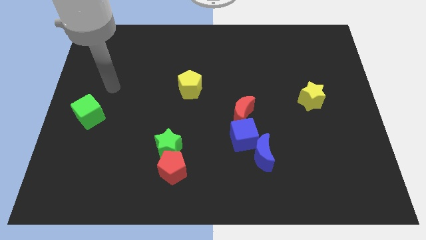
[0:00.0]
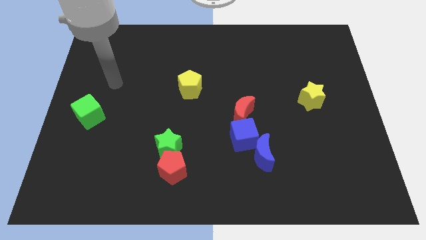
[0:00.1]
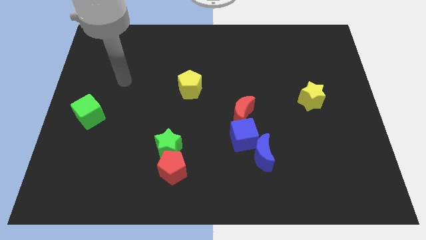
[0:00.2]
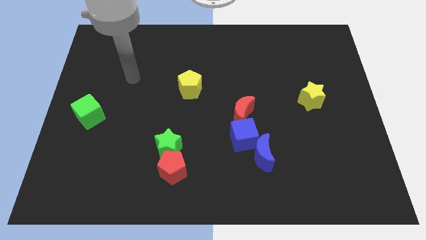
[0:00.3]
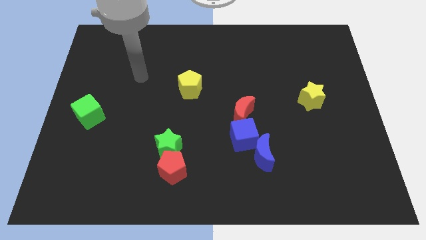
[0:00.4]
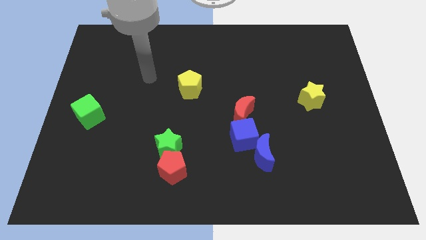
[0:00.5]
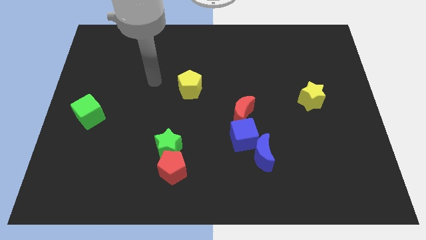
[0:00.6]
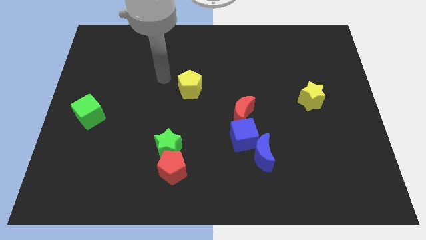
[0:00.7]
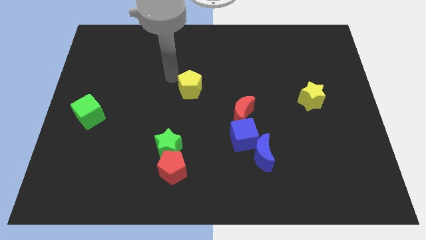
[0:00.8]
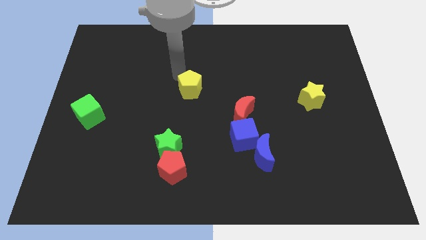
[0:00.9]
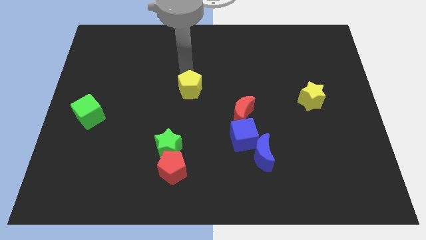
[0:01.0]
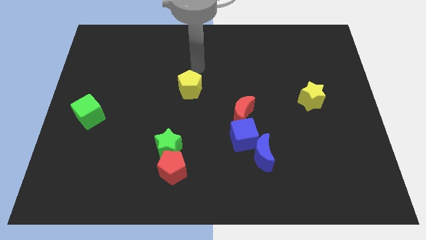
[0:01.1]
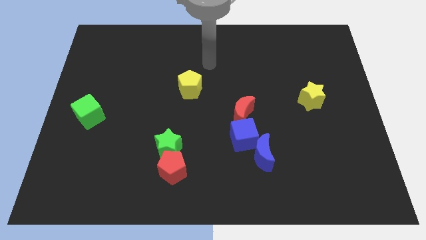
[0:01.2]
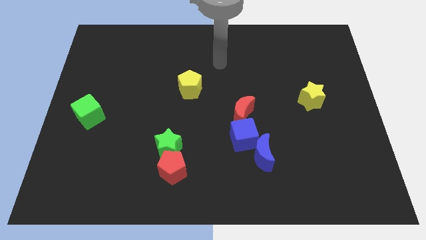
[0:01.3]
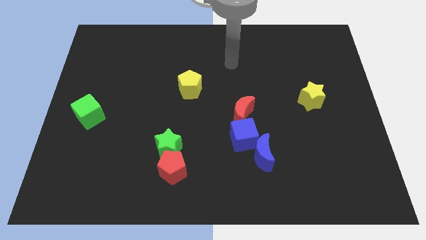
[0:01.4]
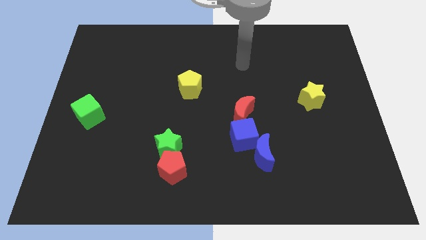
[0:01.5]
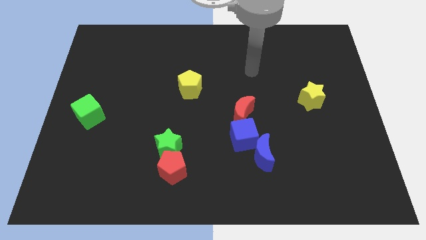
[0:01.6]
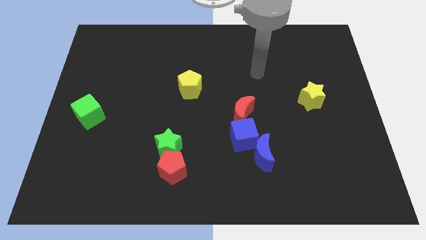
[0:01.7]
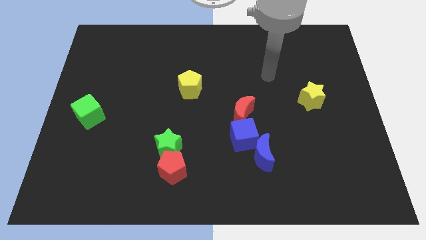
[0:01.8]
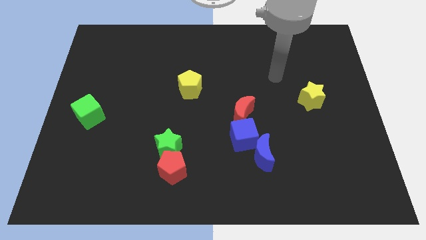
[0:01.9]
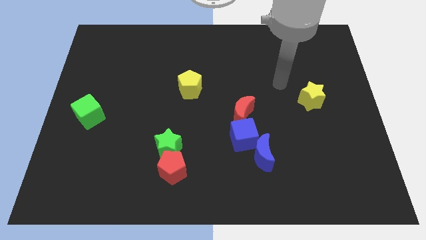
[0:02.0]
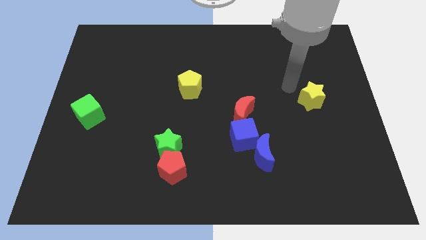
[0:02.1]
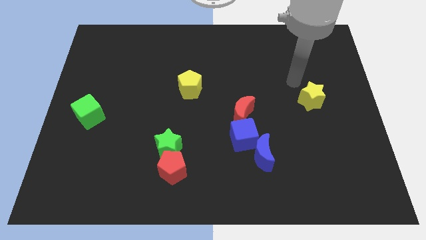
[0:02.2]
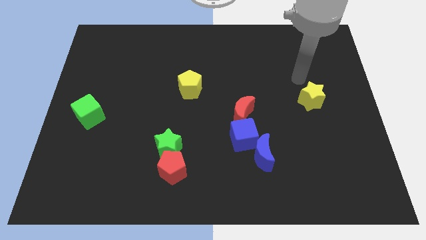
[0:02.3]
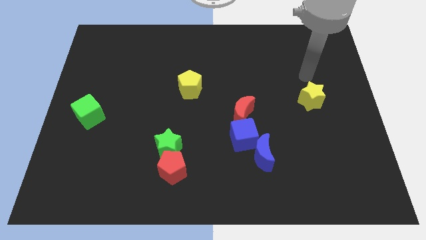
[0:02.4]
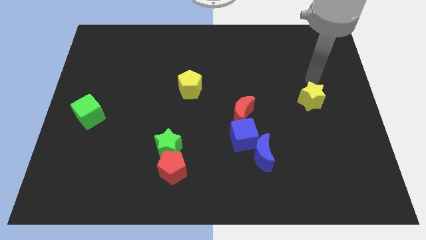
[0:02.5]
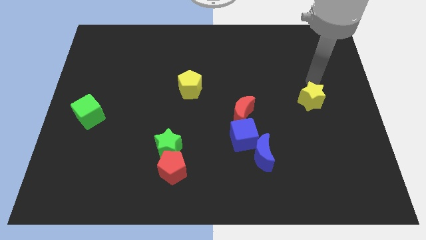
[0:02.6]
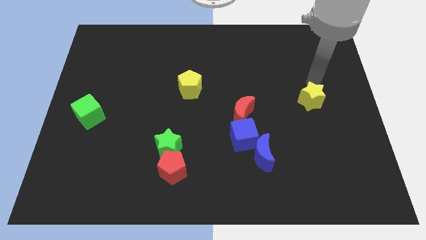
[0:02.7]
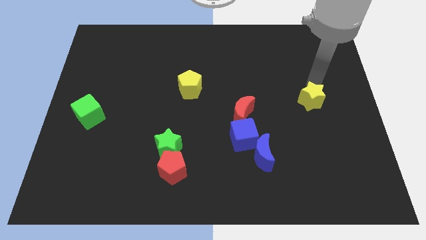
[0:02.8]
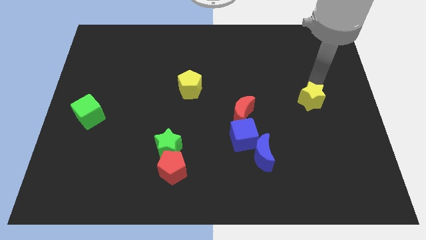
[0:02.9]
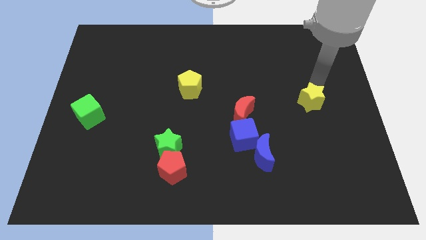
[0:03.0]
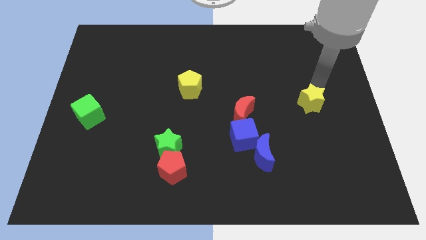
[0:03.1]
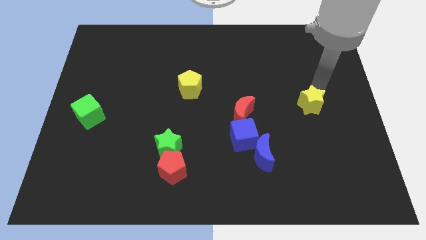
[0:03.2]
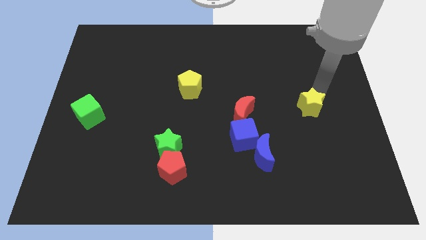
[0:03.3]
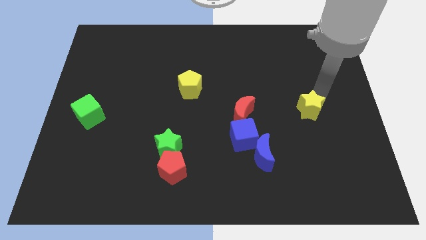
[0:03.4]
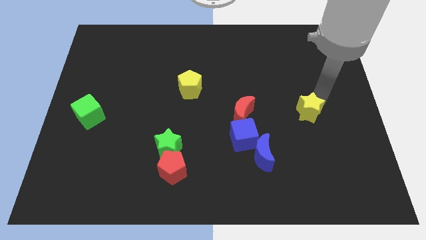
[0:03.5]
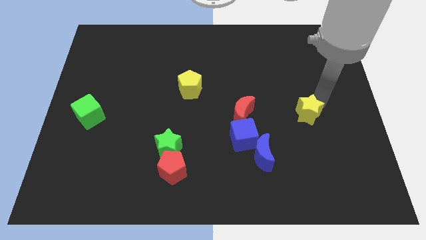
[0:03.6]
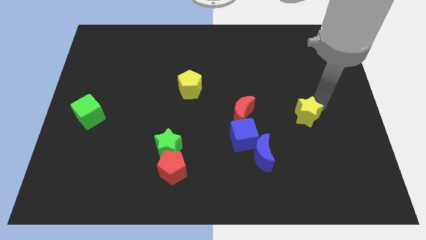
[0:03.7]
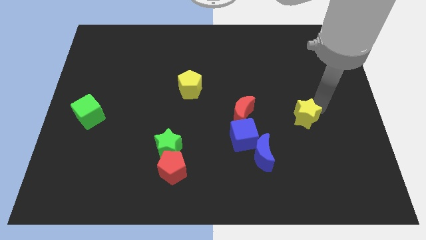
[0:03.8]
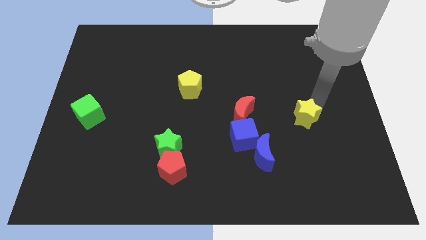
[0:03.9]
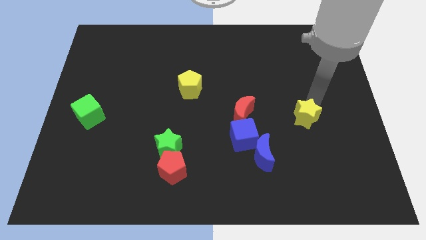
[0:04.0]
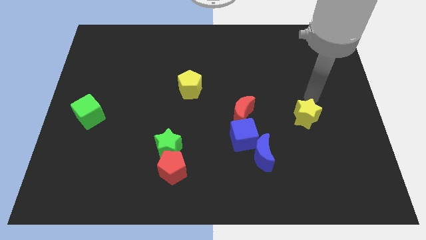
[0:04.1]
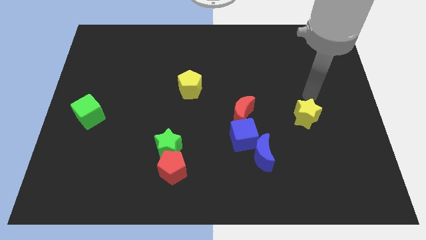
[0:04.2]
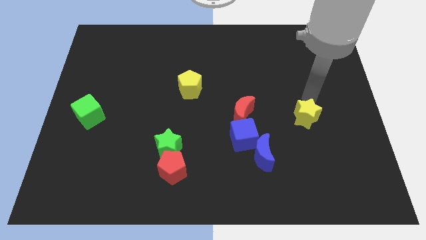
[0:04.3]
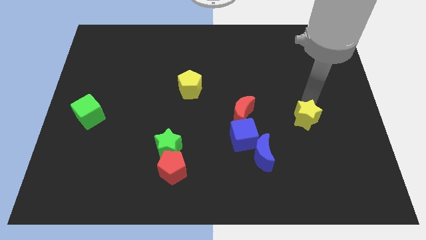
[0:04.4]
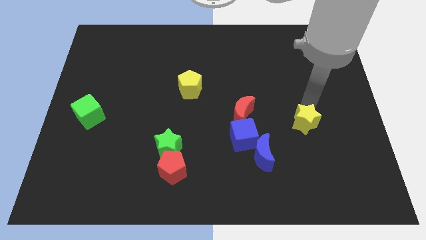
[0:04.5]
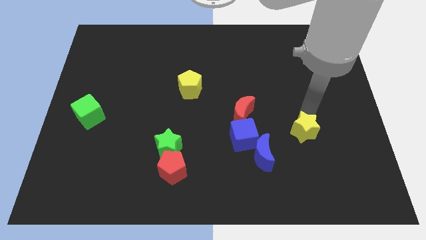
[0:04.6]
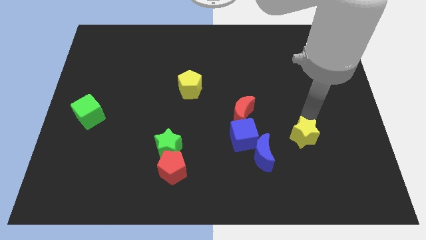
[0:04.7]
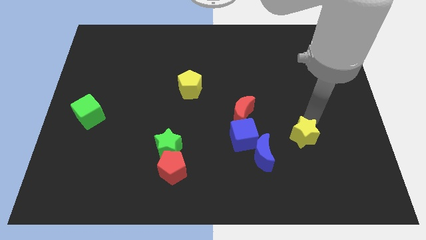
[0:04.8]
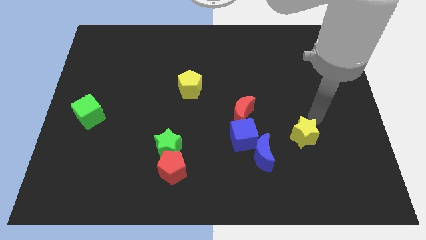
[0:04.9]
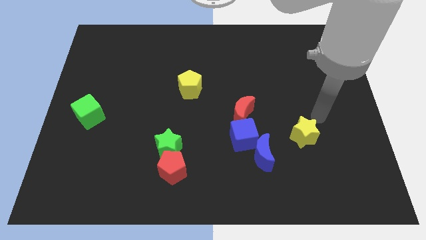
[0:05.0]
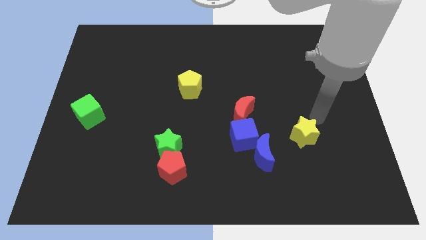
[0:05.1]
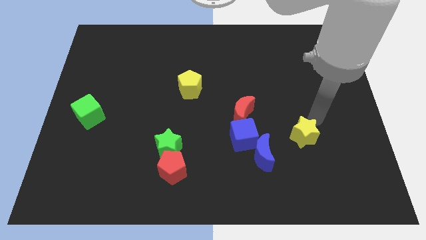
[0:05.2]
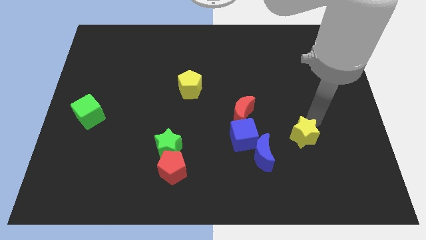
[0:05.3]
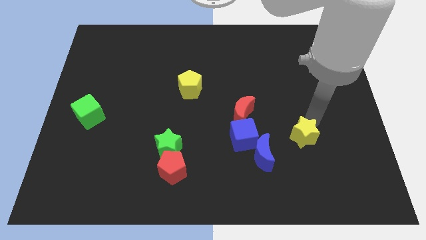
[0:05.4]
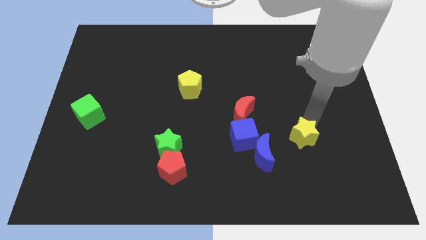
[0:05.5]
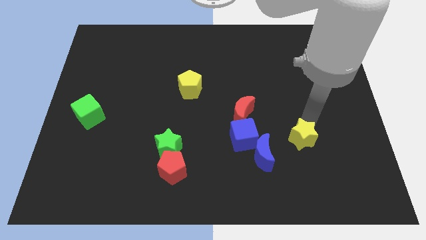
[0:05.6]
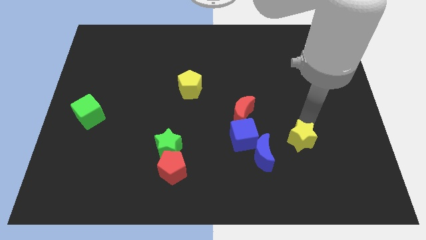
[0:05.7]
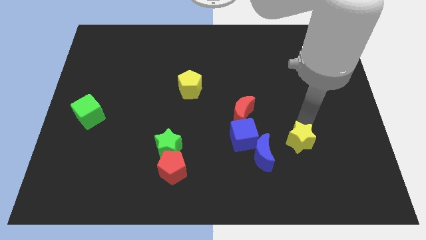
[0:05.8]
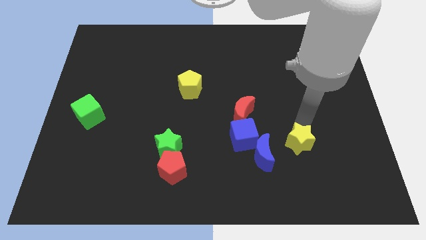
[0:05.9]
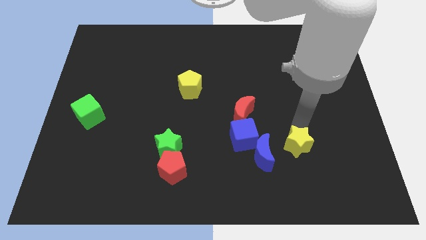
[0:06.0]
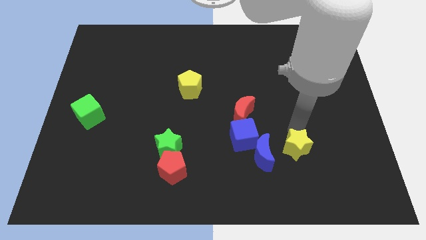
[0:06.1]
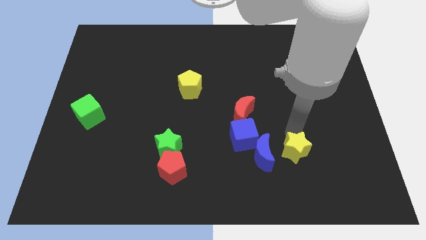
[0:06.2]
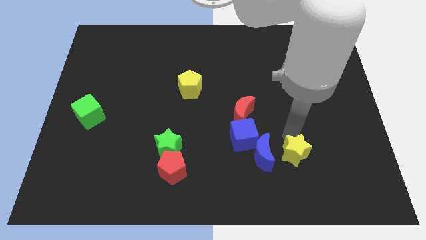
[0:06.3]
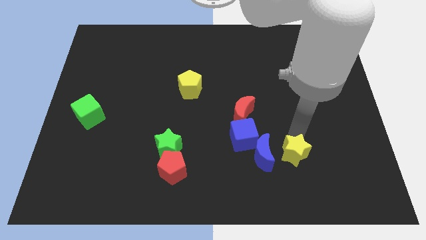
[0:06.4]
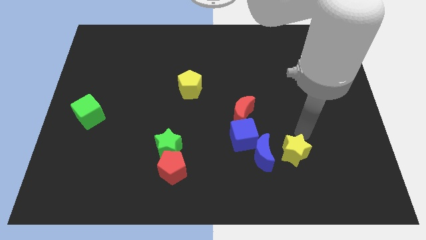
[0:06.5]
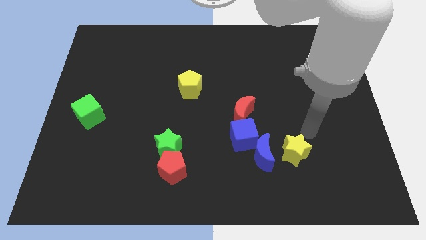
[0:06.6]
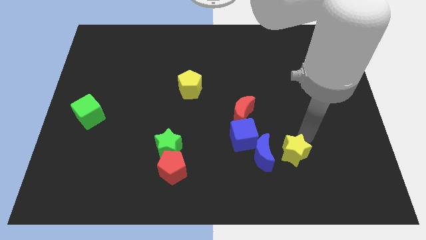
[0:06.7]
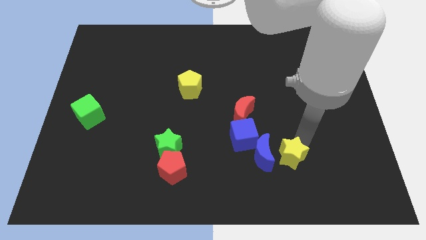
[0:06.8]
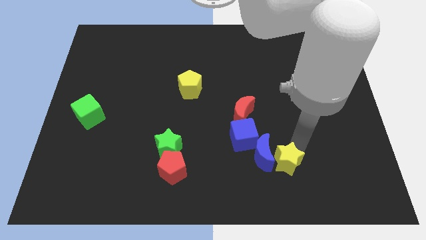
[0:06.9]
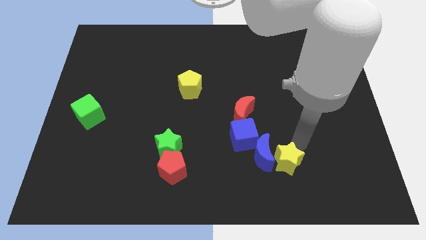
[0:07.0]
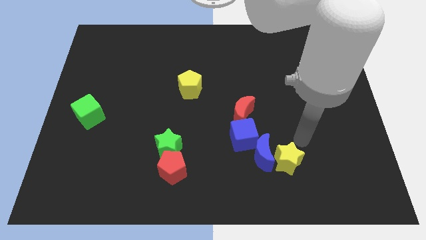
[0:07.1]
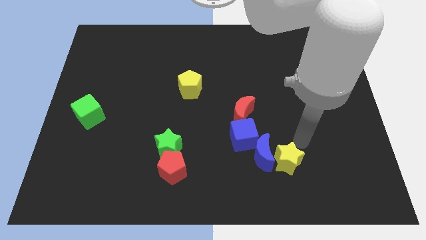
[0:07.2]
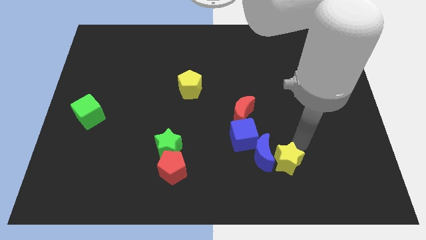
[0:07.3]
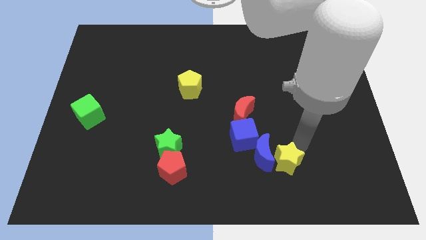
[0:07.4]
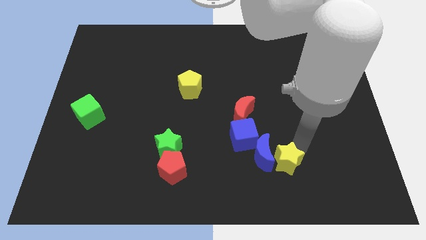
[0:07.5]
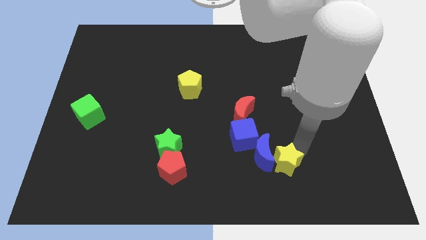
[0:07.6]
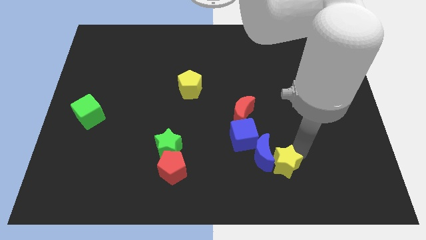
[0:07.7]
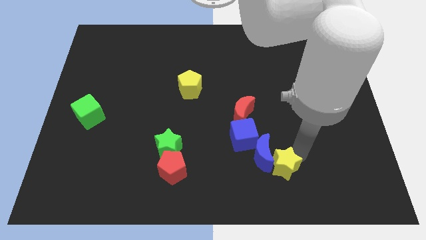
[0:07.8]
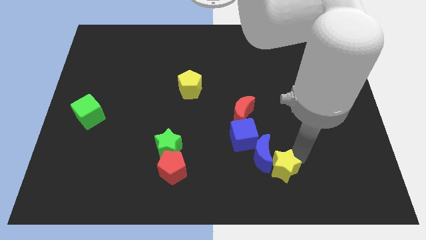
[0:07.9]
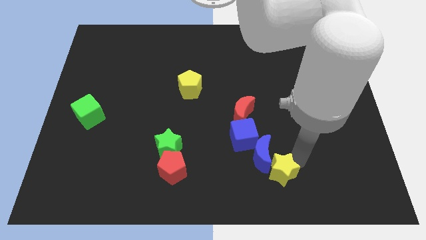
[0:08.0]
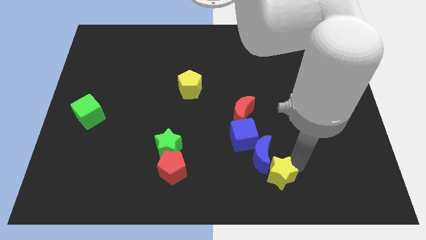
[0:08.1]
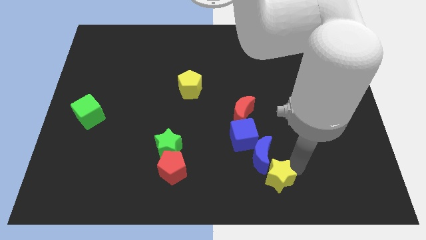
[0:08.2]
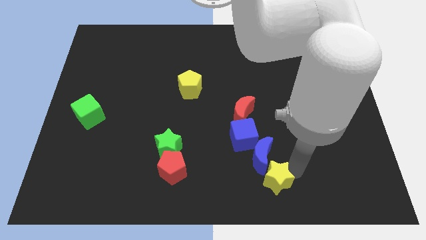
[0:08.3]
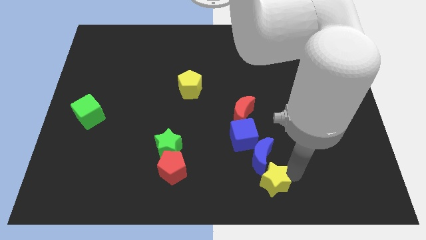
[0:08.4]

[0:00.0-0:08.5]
move the yellow star to the bottom side
